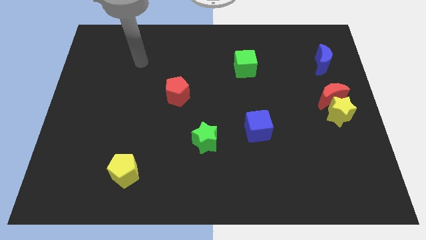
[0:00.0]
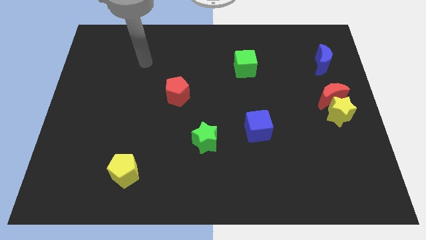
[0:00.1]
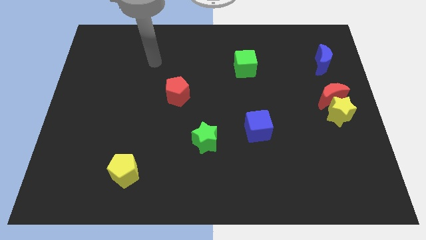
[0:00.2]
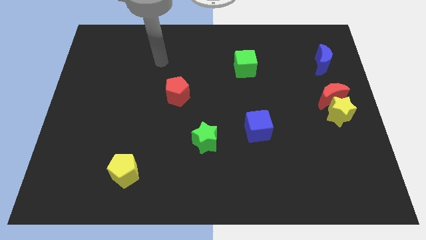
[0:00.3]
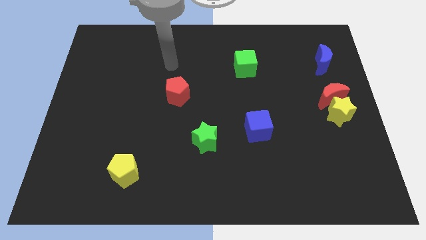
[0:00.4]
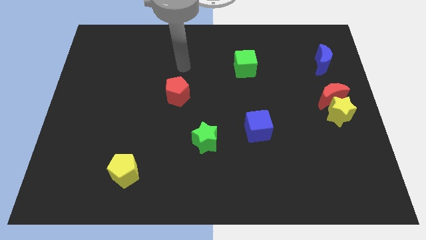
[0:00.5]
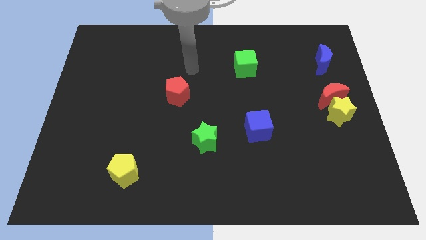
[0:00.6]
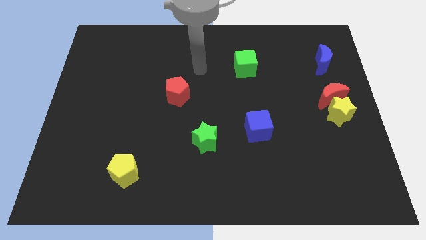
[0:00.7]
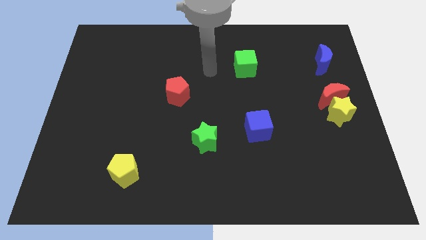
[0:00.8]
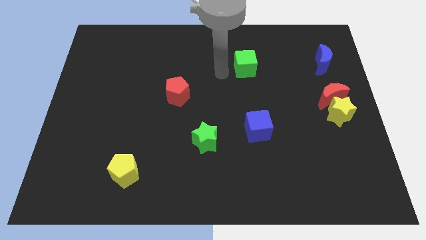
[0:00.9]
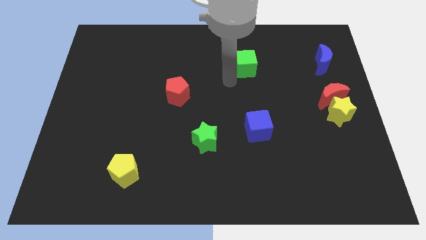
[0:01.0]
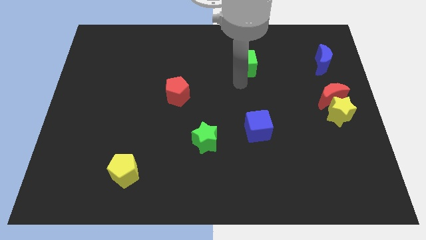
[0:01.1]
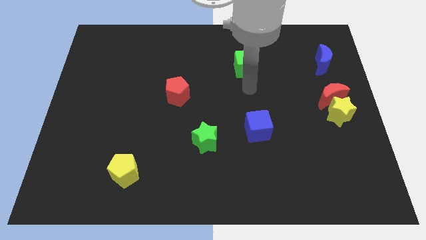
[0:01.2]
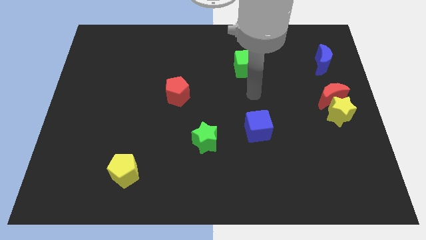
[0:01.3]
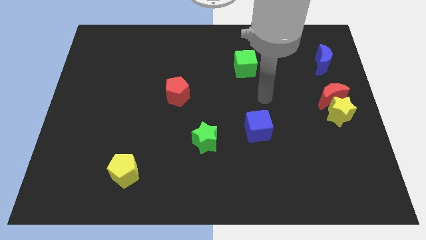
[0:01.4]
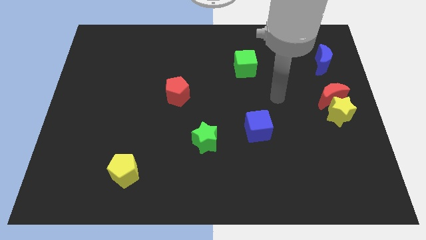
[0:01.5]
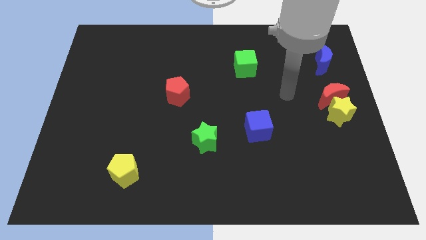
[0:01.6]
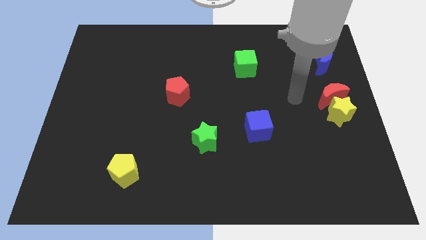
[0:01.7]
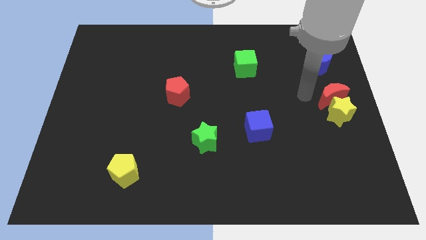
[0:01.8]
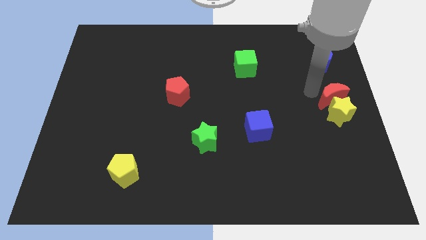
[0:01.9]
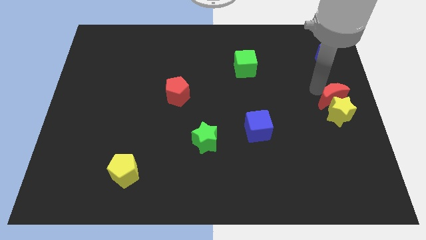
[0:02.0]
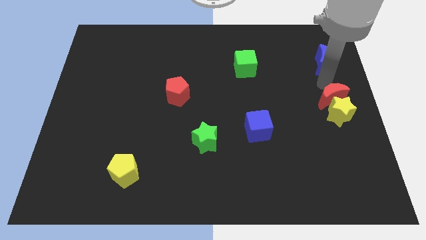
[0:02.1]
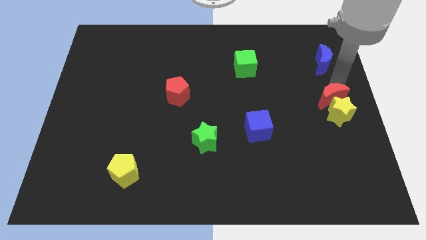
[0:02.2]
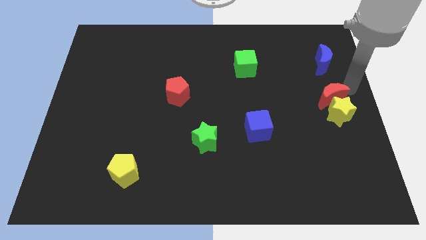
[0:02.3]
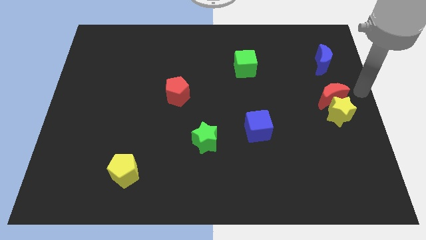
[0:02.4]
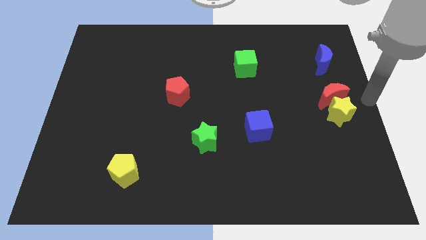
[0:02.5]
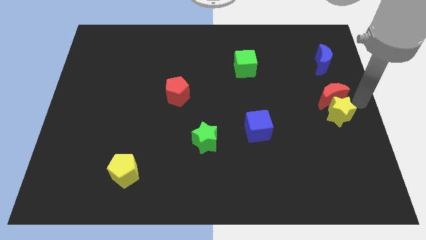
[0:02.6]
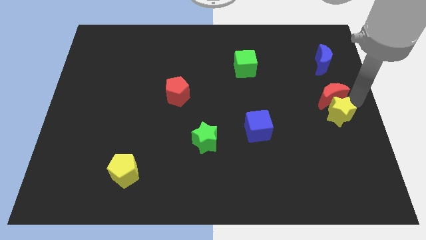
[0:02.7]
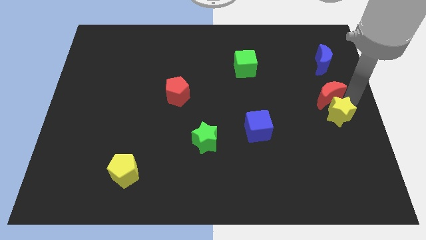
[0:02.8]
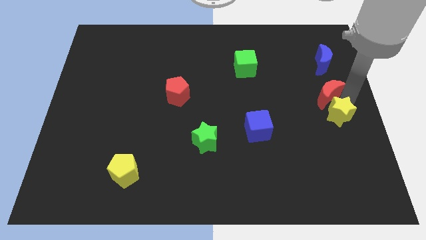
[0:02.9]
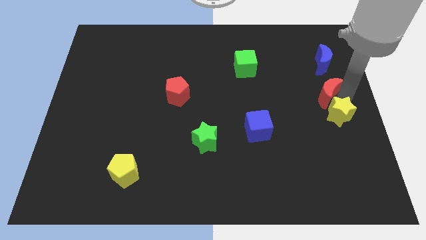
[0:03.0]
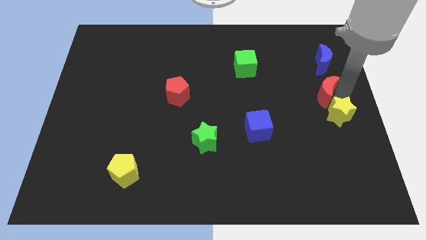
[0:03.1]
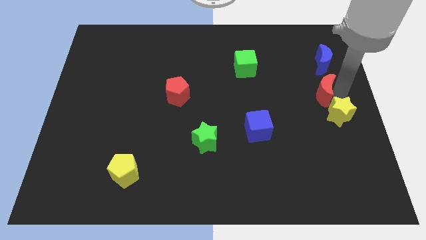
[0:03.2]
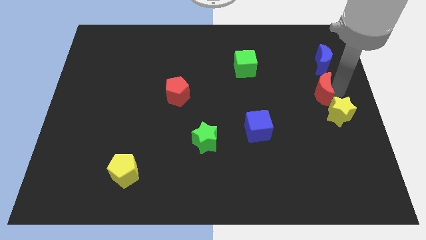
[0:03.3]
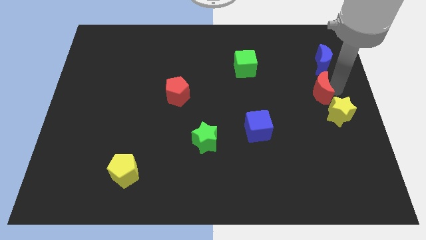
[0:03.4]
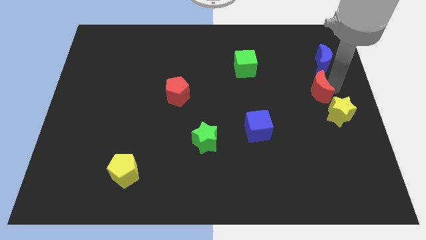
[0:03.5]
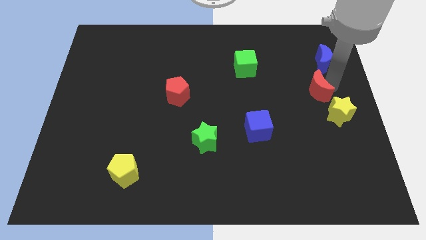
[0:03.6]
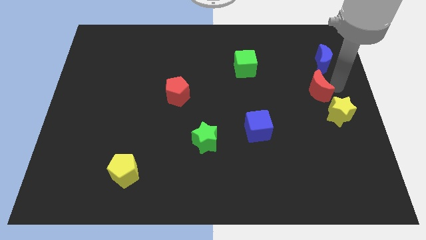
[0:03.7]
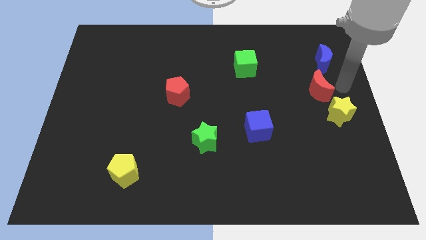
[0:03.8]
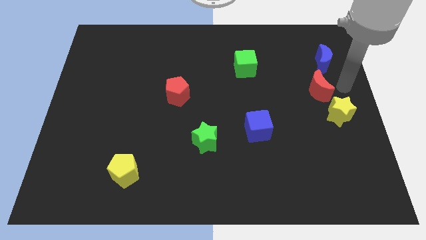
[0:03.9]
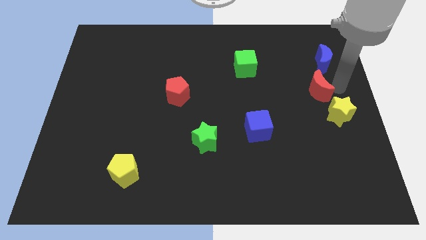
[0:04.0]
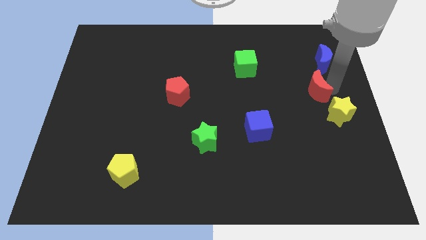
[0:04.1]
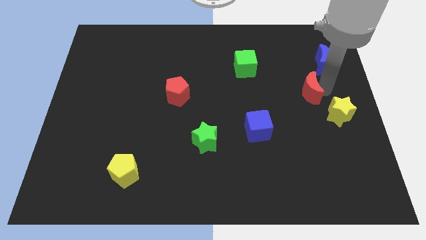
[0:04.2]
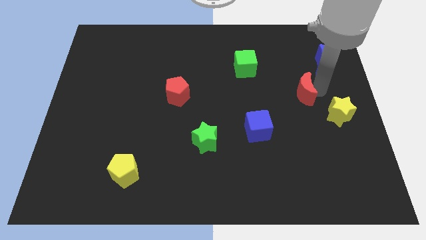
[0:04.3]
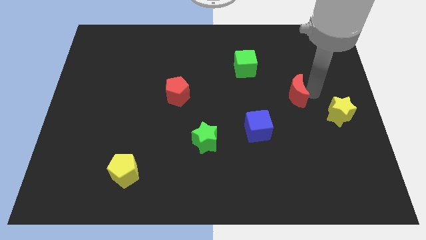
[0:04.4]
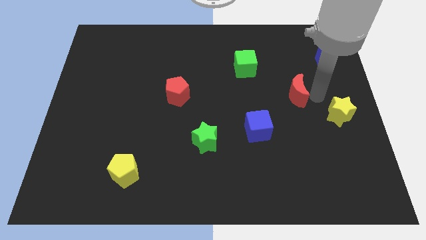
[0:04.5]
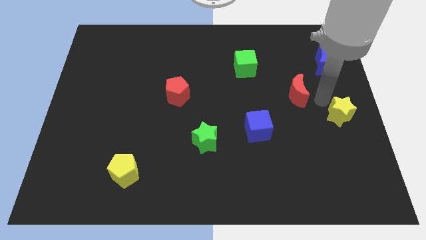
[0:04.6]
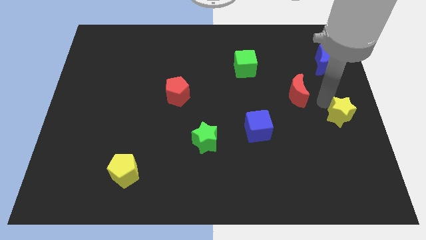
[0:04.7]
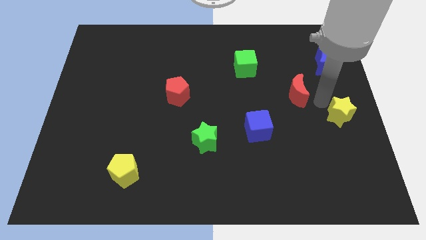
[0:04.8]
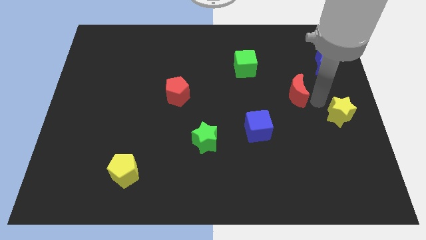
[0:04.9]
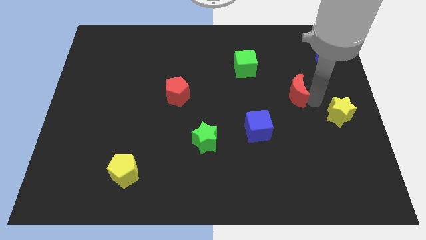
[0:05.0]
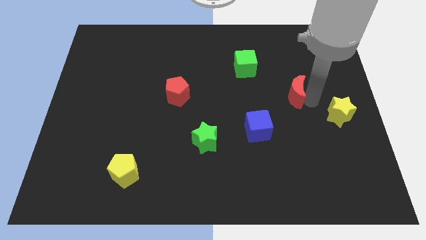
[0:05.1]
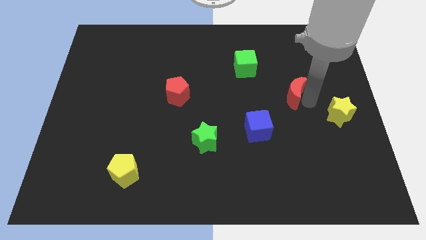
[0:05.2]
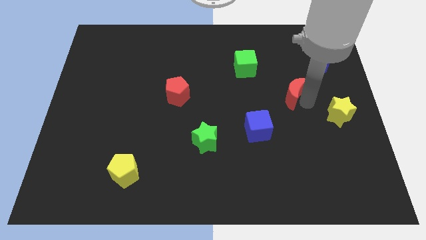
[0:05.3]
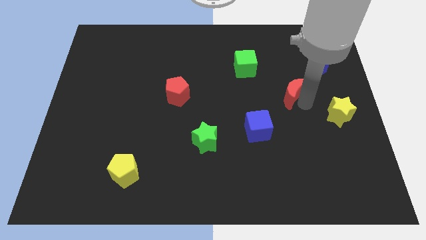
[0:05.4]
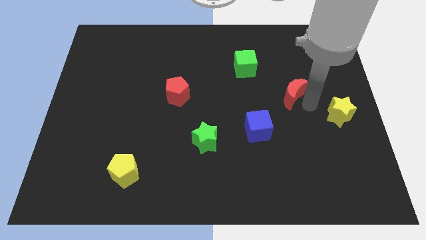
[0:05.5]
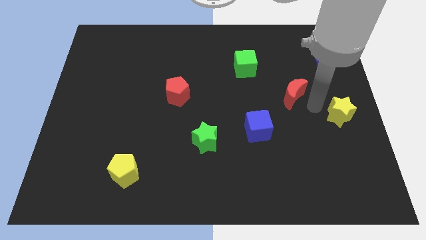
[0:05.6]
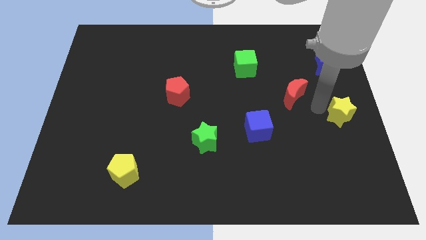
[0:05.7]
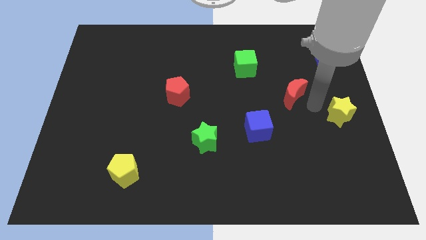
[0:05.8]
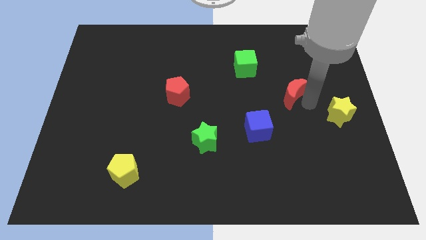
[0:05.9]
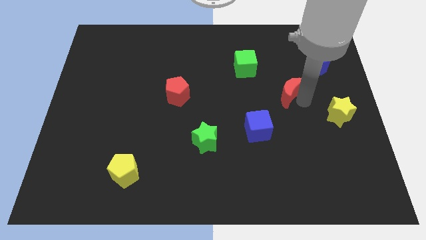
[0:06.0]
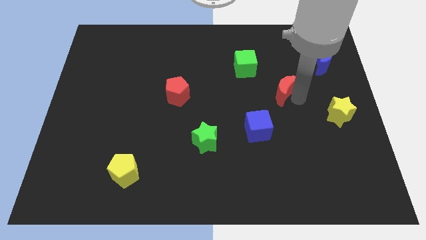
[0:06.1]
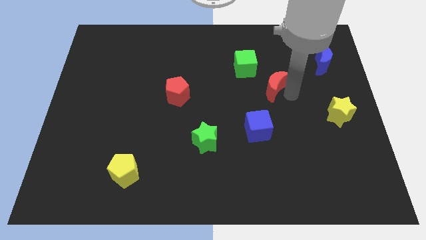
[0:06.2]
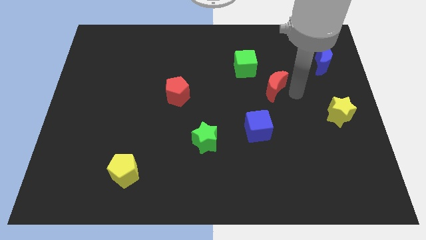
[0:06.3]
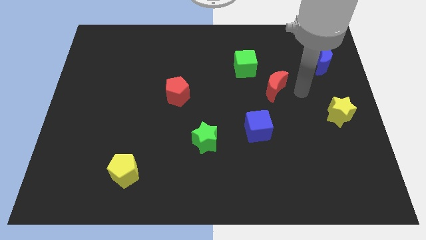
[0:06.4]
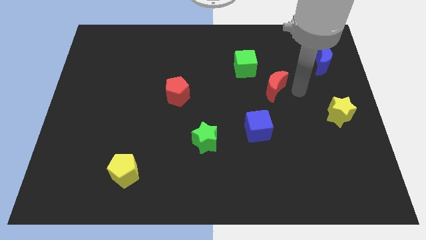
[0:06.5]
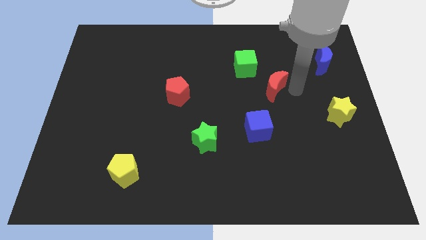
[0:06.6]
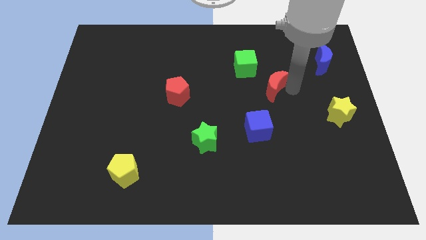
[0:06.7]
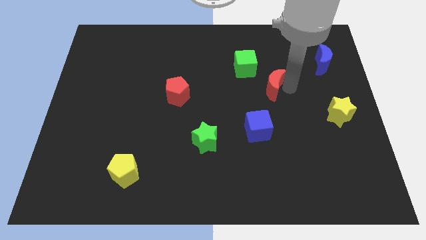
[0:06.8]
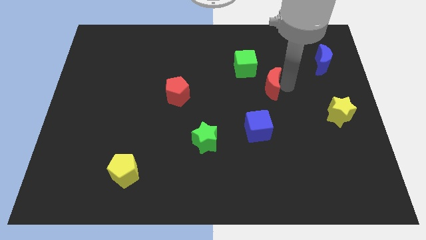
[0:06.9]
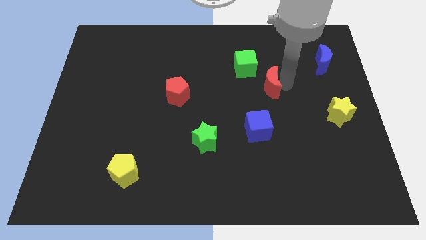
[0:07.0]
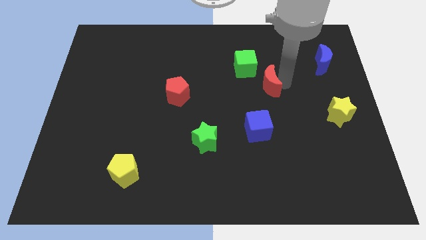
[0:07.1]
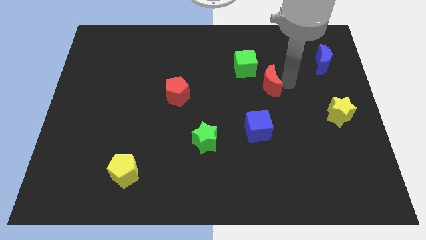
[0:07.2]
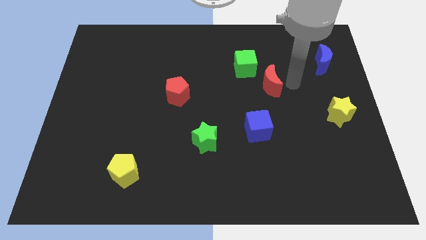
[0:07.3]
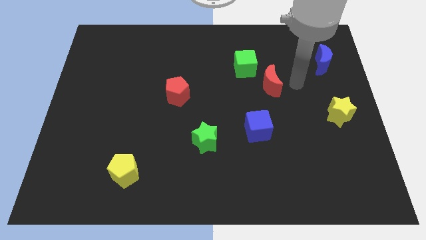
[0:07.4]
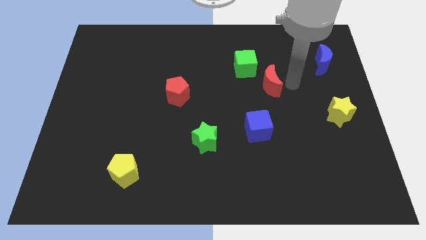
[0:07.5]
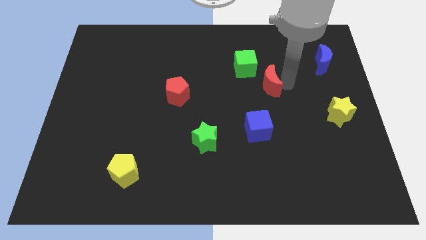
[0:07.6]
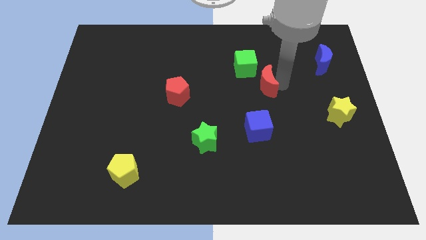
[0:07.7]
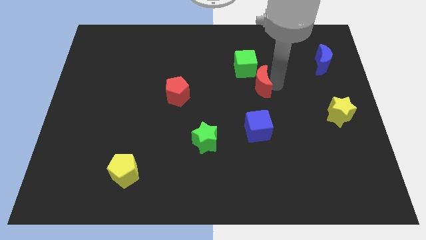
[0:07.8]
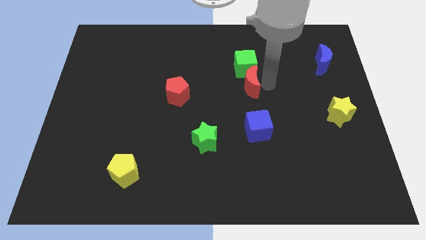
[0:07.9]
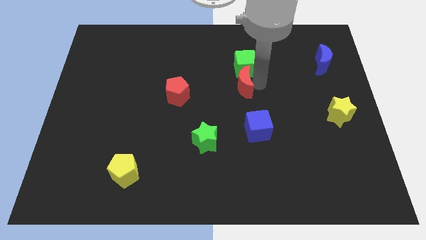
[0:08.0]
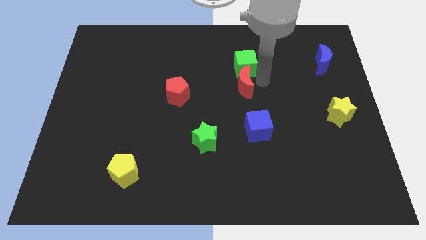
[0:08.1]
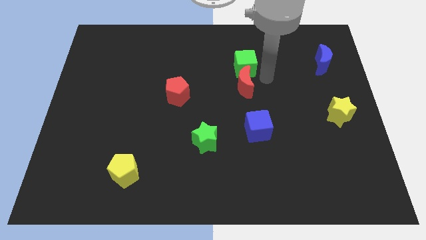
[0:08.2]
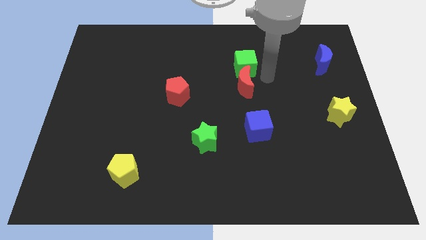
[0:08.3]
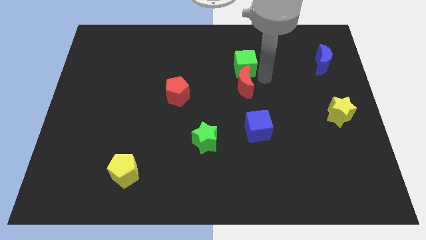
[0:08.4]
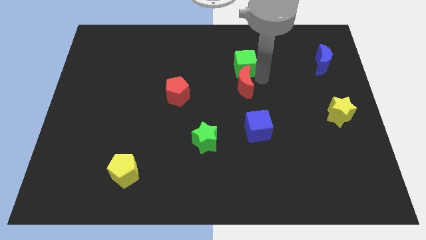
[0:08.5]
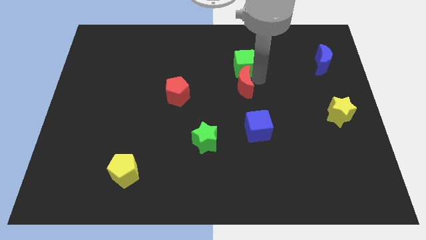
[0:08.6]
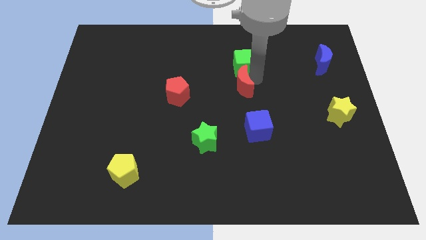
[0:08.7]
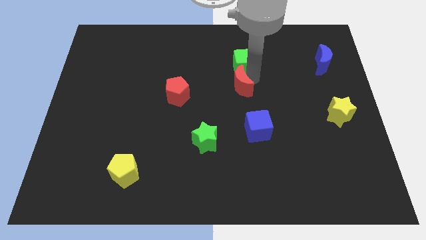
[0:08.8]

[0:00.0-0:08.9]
put the red moon just right of the red pentagon
